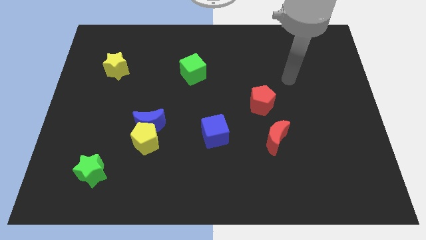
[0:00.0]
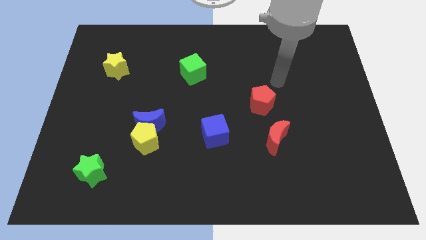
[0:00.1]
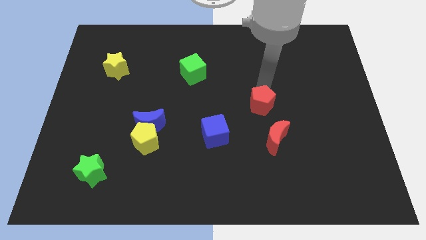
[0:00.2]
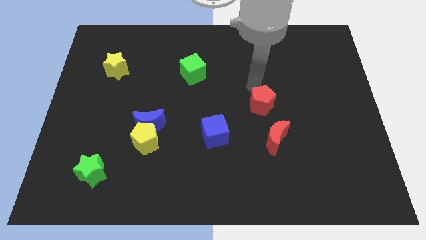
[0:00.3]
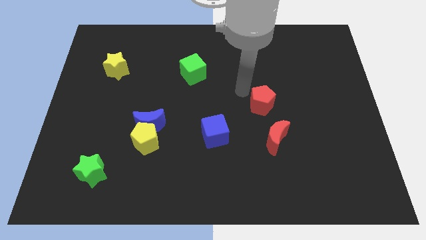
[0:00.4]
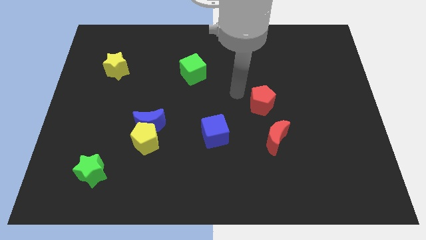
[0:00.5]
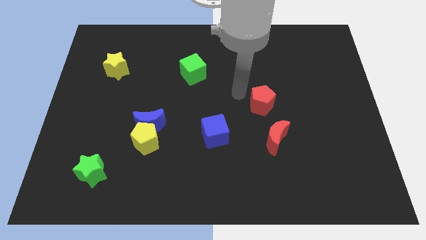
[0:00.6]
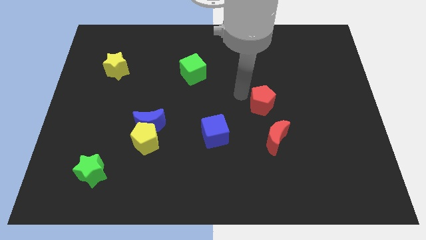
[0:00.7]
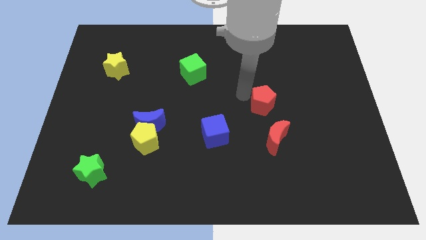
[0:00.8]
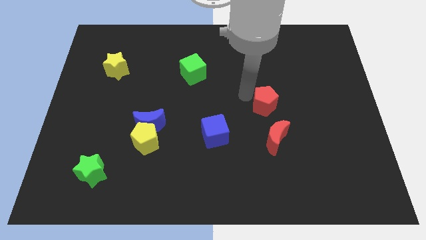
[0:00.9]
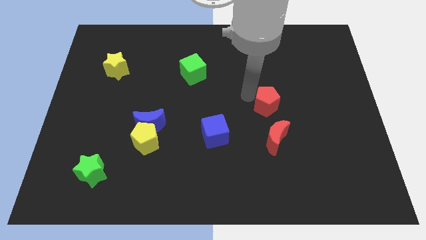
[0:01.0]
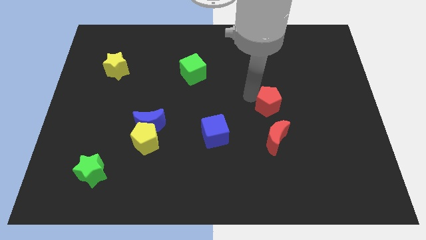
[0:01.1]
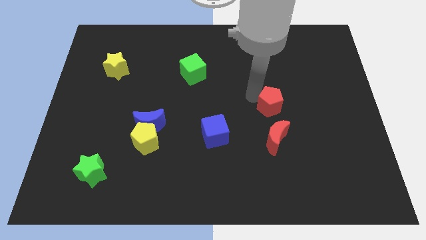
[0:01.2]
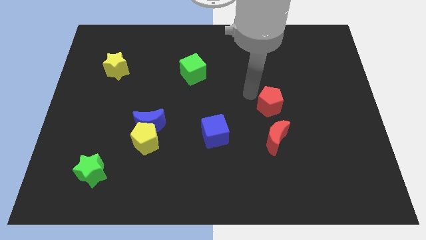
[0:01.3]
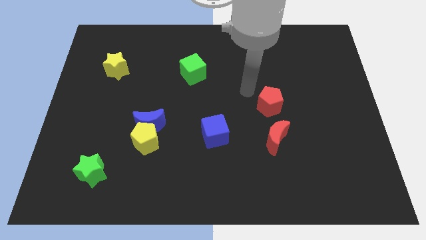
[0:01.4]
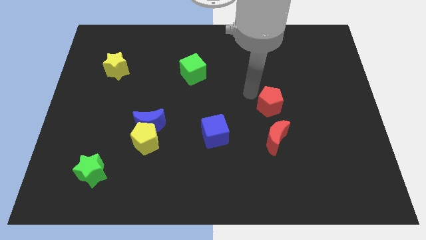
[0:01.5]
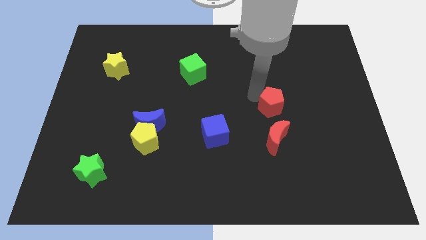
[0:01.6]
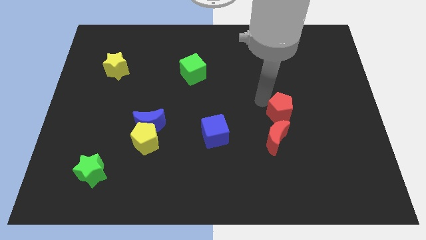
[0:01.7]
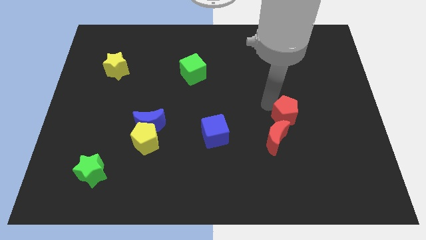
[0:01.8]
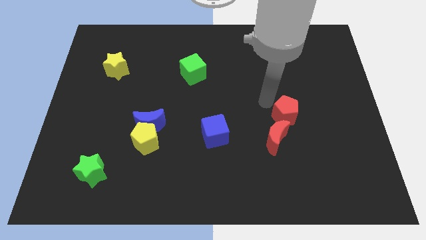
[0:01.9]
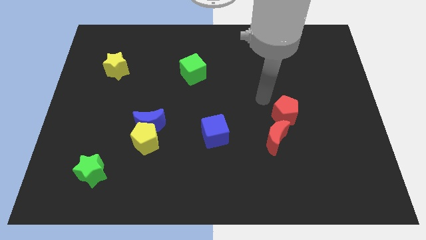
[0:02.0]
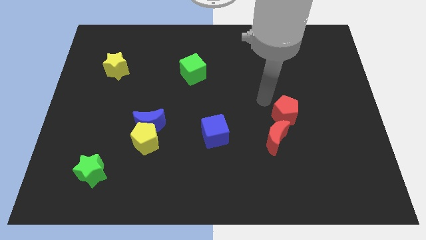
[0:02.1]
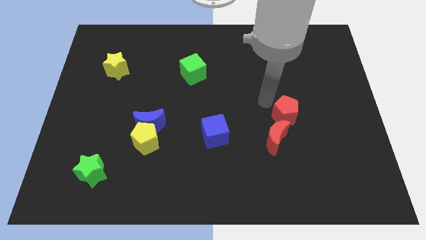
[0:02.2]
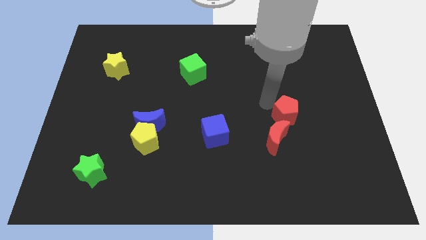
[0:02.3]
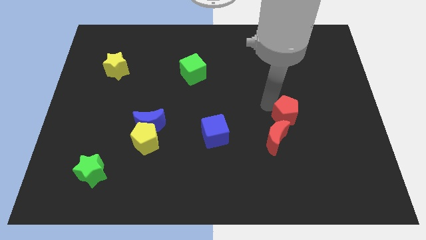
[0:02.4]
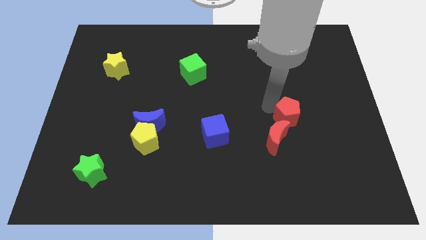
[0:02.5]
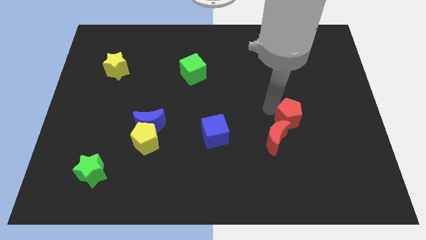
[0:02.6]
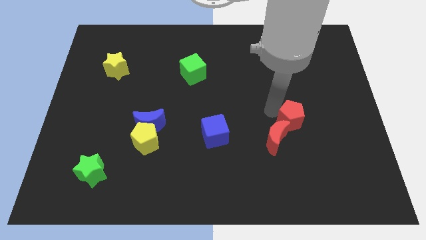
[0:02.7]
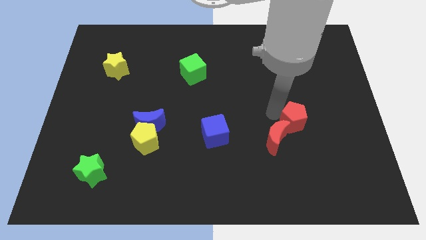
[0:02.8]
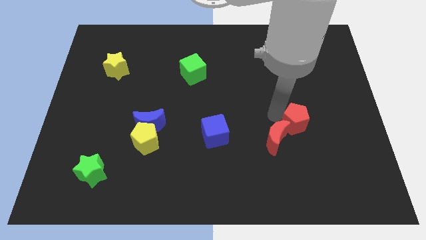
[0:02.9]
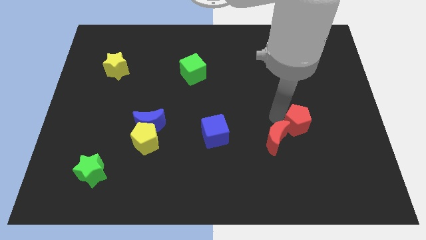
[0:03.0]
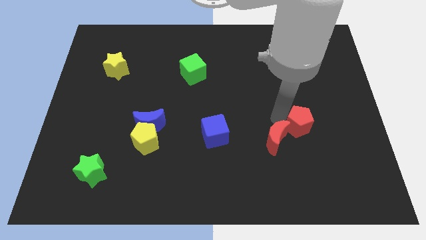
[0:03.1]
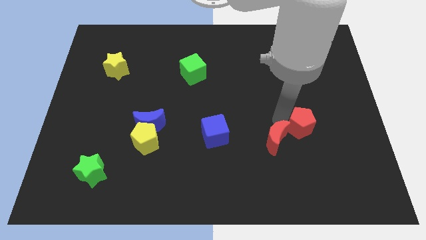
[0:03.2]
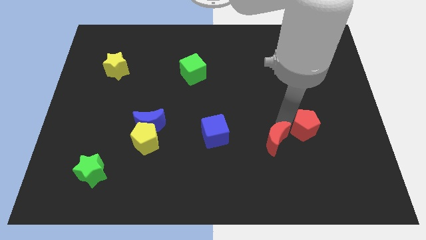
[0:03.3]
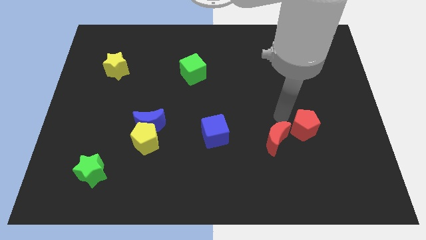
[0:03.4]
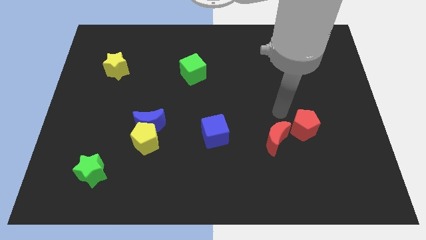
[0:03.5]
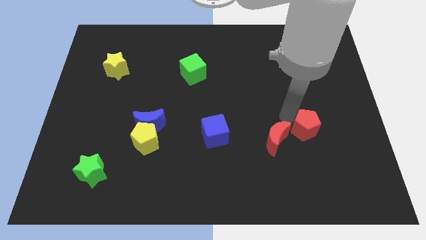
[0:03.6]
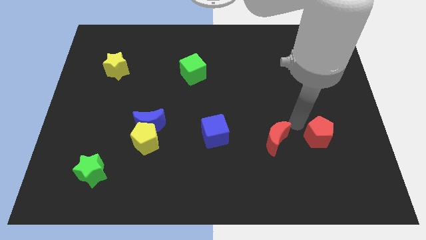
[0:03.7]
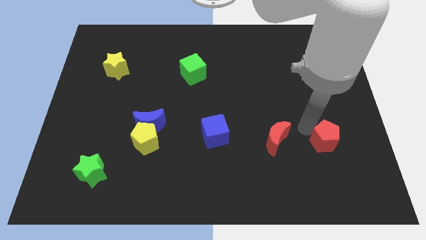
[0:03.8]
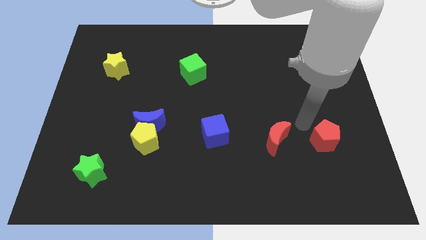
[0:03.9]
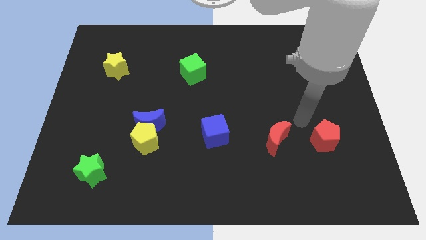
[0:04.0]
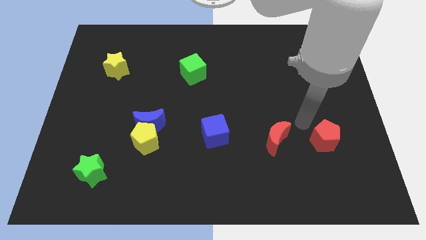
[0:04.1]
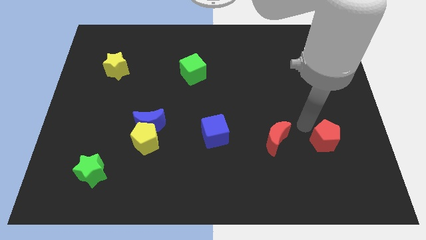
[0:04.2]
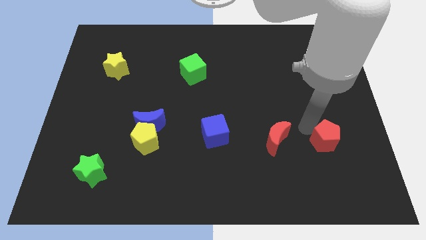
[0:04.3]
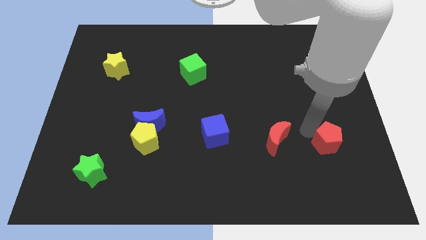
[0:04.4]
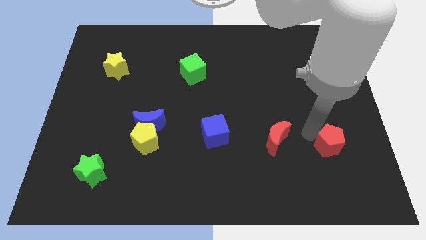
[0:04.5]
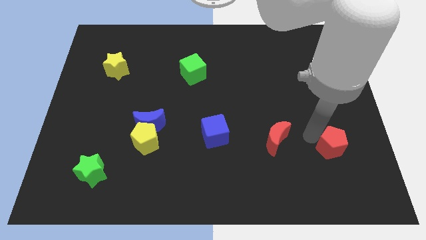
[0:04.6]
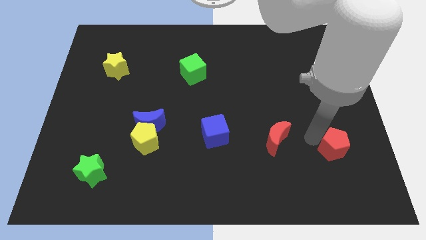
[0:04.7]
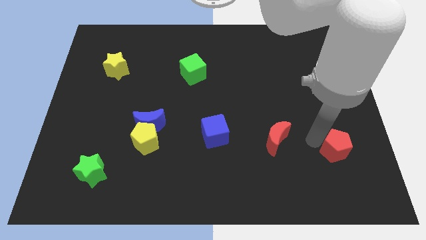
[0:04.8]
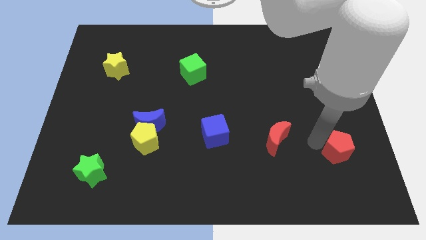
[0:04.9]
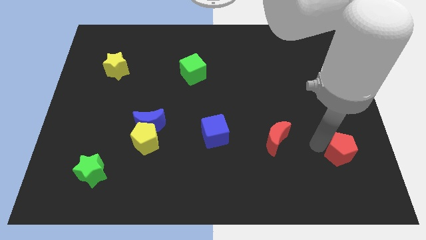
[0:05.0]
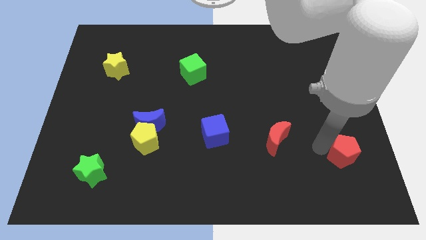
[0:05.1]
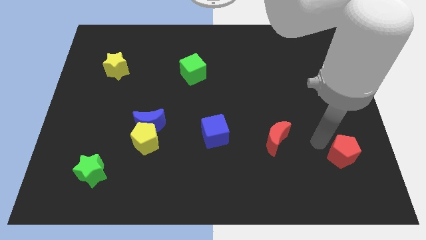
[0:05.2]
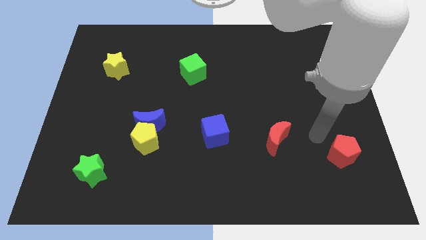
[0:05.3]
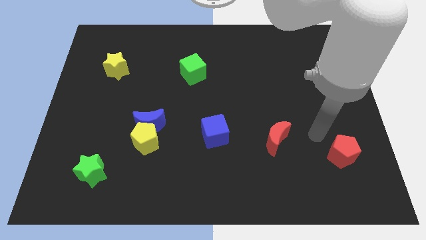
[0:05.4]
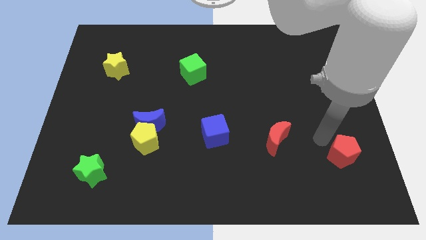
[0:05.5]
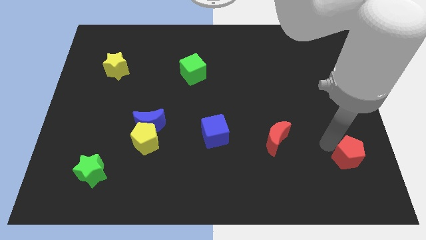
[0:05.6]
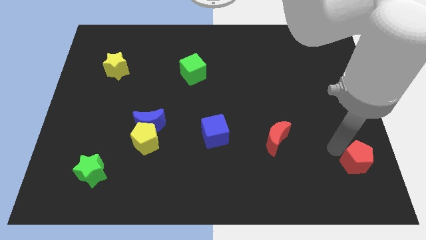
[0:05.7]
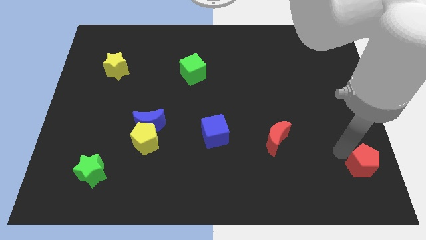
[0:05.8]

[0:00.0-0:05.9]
push the red pentagon to the bottom right corner

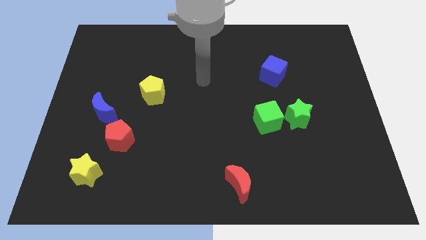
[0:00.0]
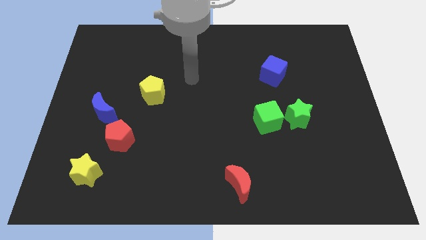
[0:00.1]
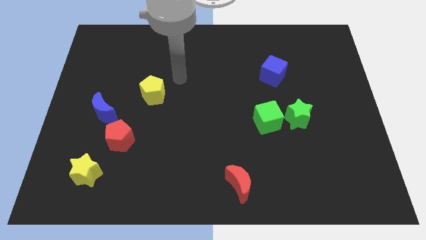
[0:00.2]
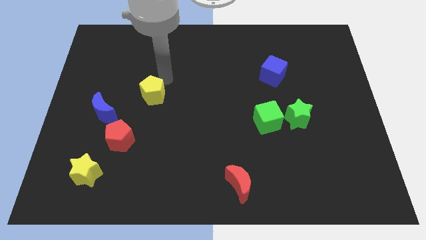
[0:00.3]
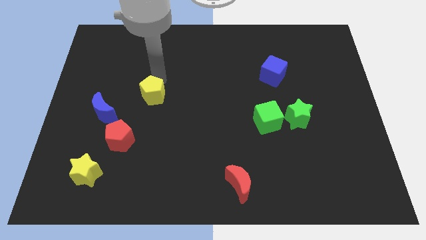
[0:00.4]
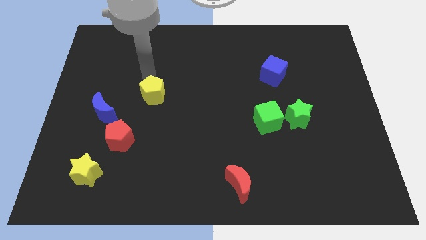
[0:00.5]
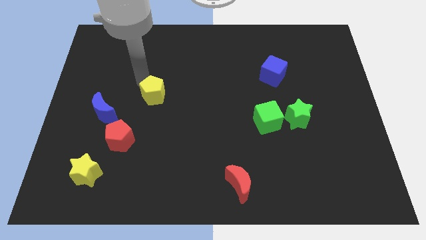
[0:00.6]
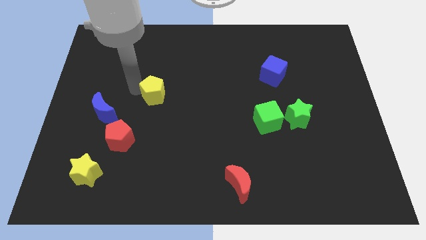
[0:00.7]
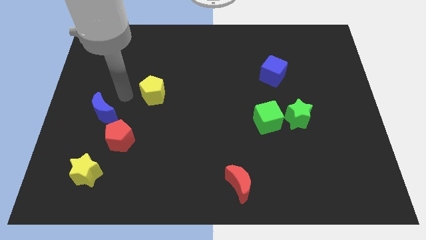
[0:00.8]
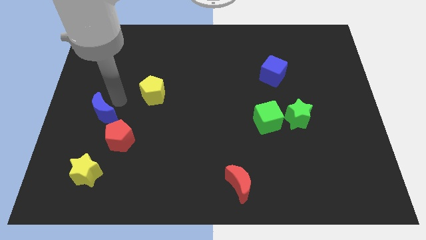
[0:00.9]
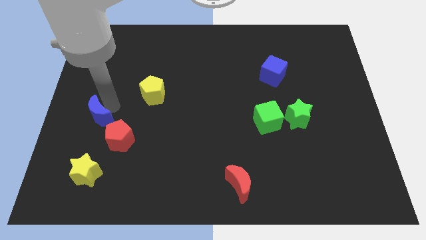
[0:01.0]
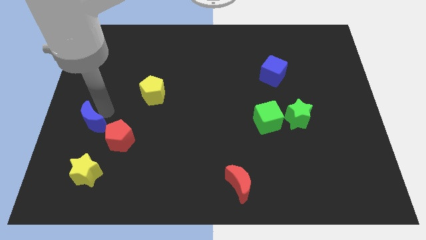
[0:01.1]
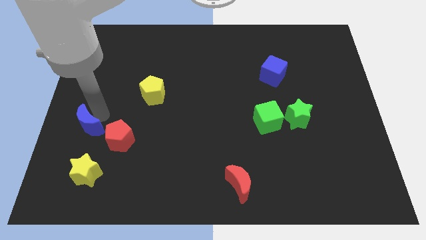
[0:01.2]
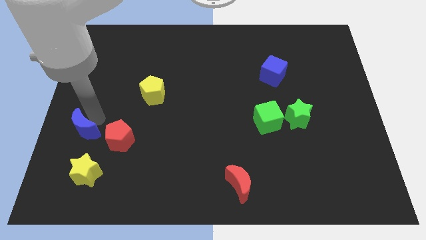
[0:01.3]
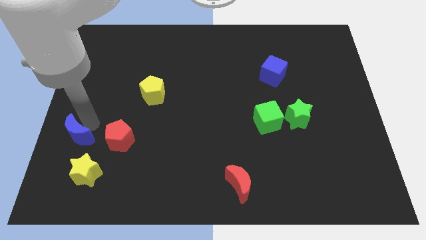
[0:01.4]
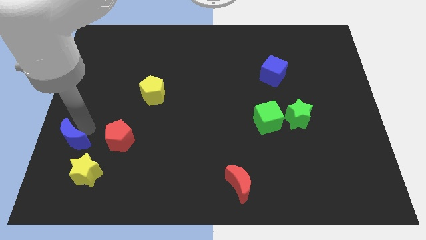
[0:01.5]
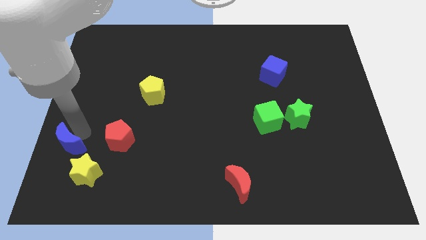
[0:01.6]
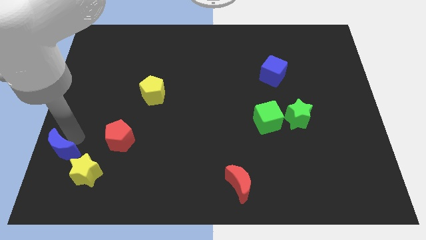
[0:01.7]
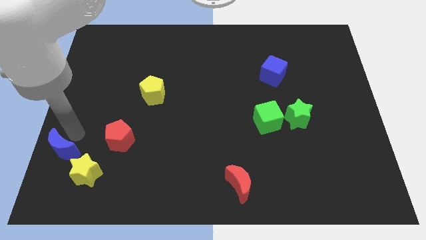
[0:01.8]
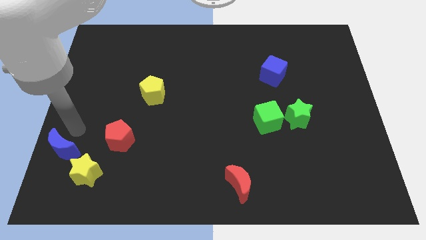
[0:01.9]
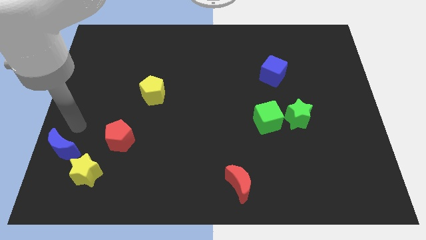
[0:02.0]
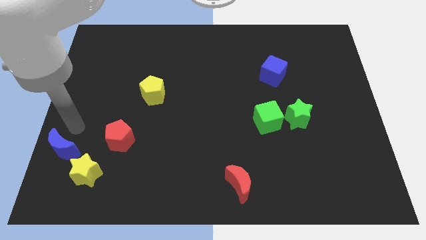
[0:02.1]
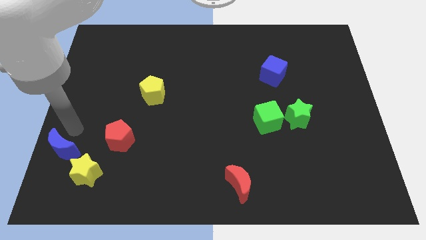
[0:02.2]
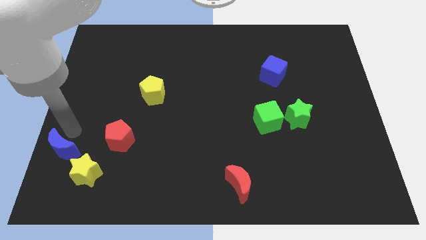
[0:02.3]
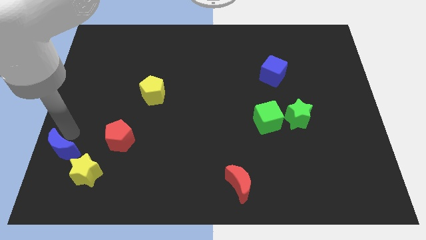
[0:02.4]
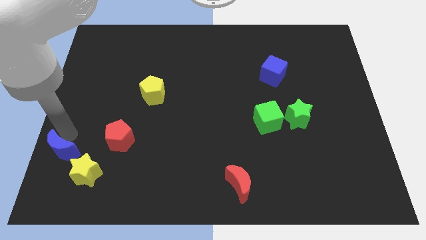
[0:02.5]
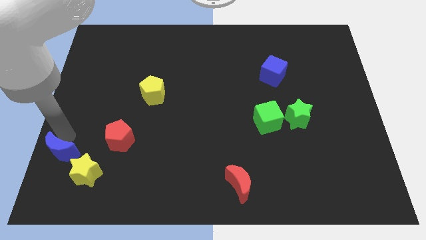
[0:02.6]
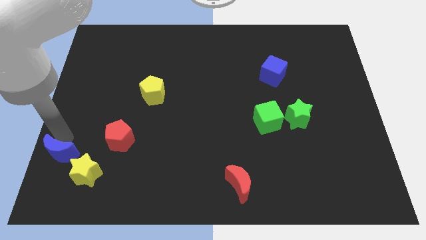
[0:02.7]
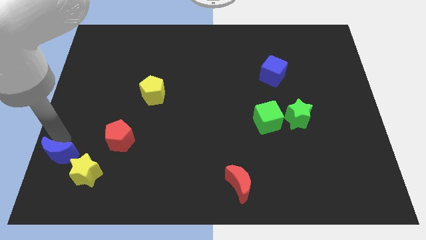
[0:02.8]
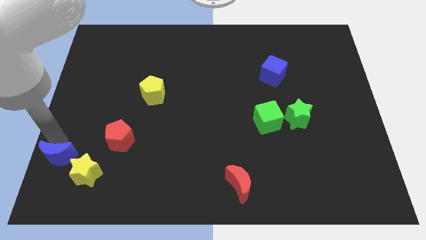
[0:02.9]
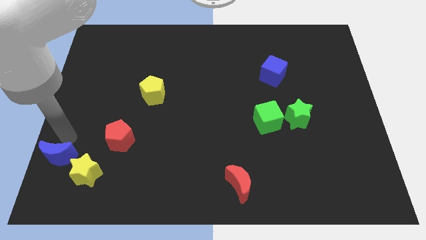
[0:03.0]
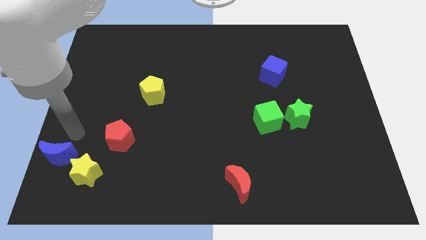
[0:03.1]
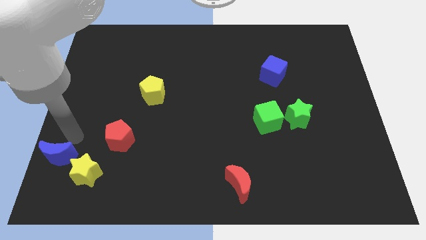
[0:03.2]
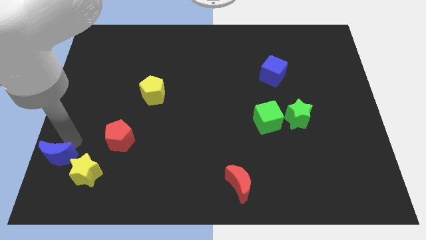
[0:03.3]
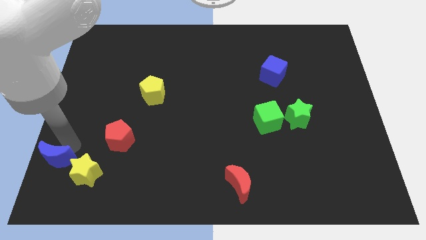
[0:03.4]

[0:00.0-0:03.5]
push the blue moon to the lower left corner
